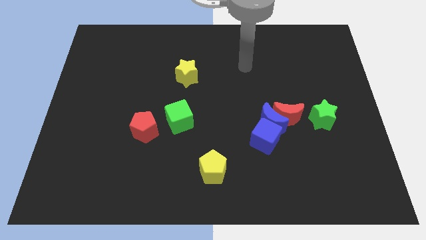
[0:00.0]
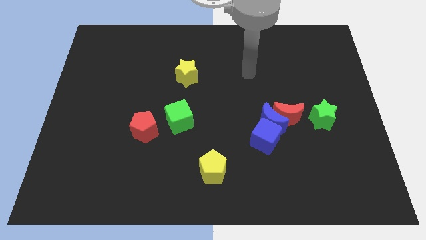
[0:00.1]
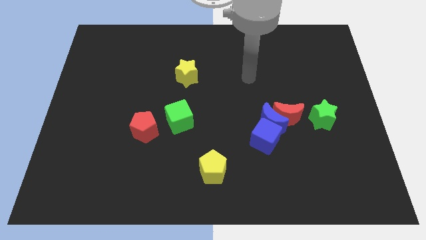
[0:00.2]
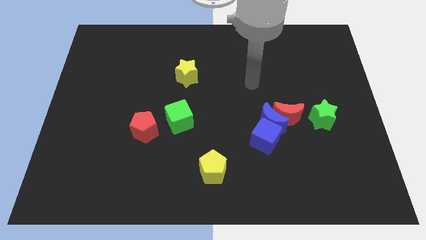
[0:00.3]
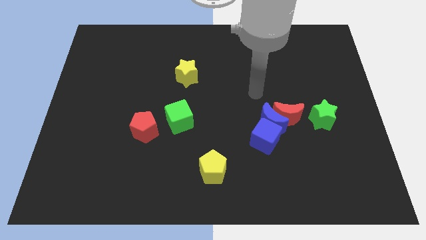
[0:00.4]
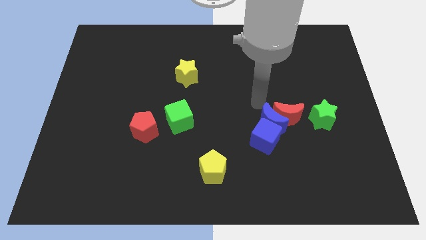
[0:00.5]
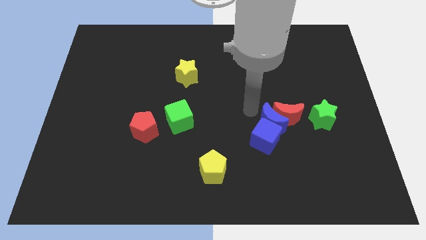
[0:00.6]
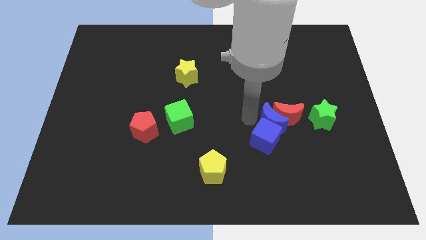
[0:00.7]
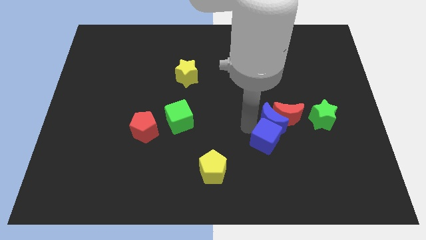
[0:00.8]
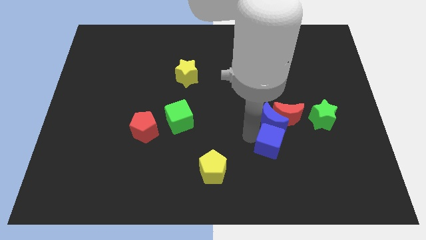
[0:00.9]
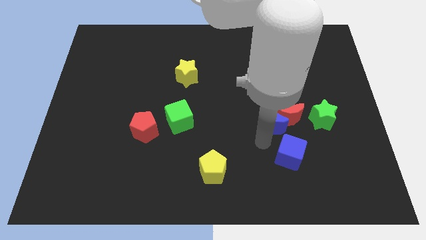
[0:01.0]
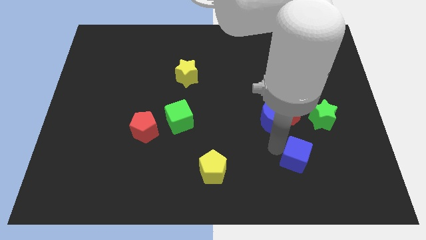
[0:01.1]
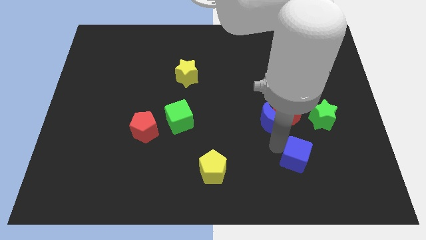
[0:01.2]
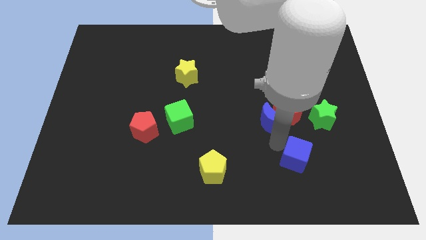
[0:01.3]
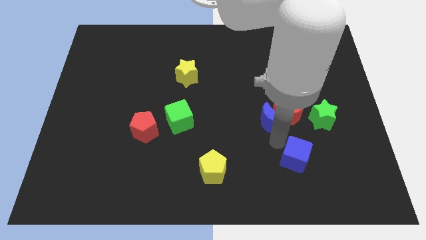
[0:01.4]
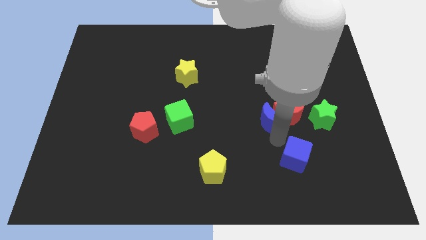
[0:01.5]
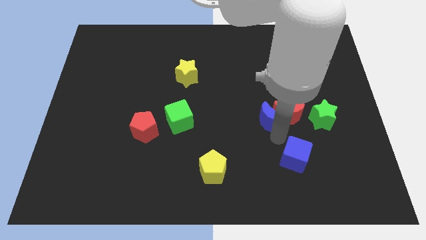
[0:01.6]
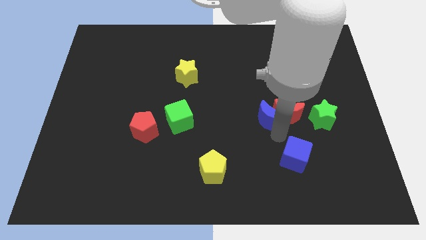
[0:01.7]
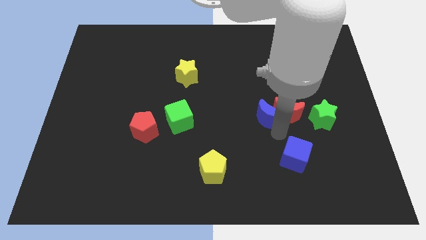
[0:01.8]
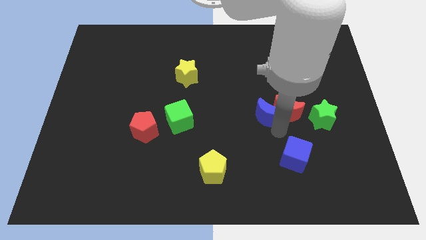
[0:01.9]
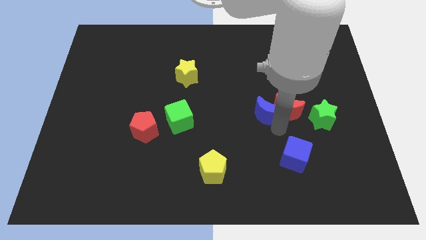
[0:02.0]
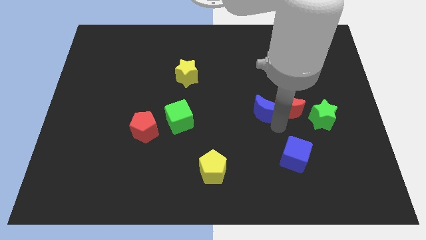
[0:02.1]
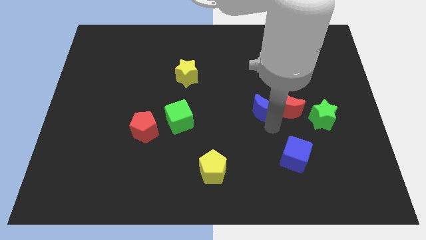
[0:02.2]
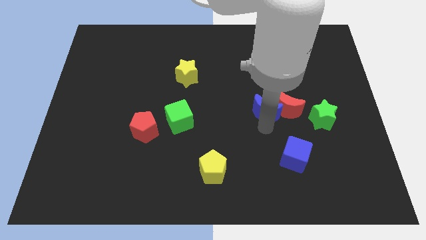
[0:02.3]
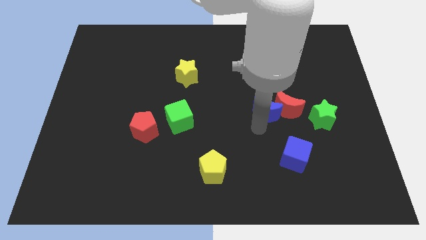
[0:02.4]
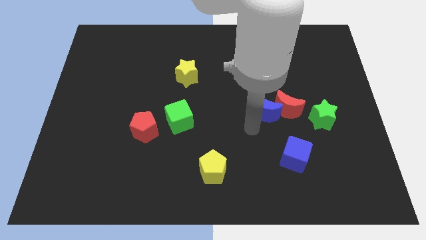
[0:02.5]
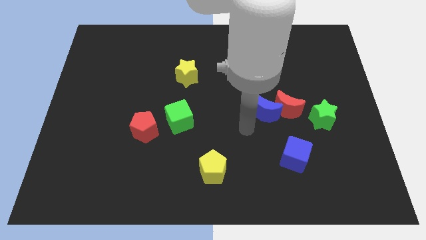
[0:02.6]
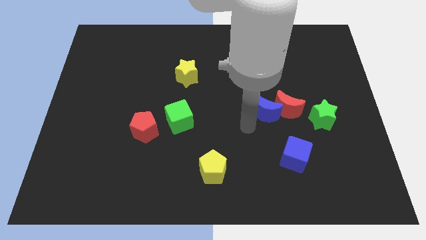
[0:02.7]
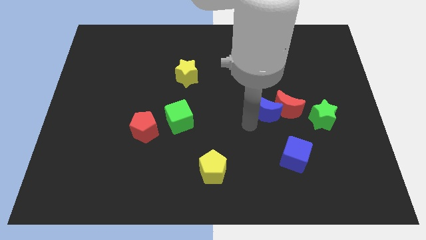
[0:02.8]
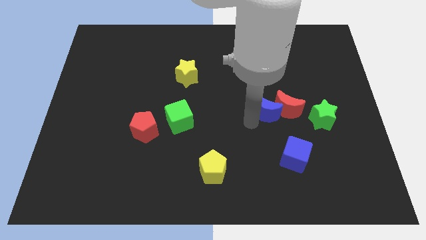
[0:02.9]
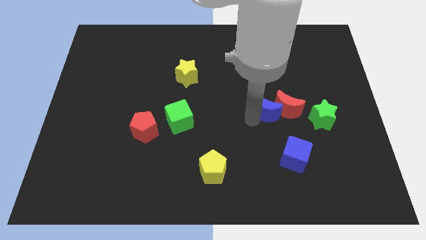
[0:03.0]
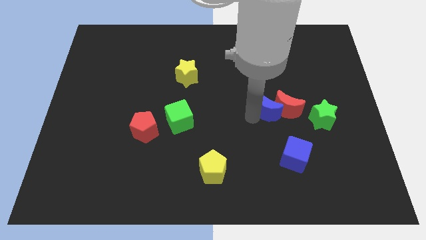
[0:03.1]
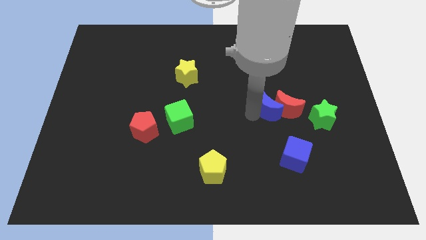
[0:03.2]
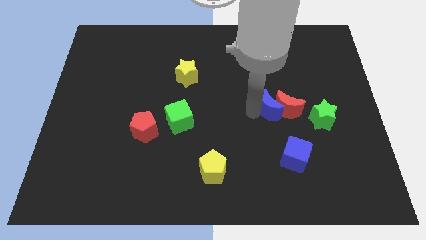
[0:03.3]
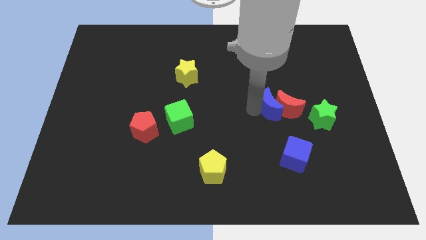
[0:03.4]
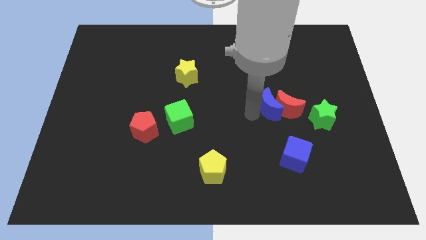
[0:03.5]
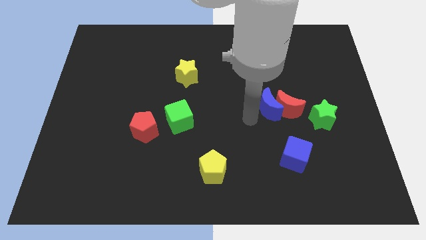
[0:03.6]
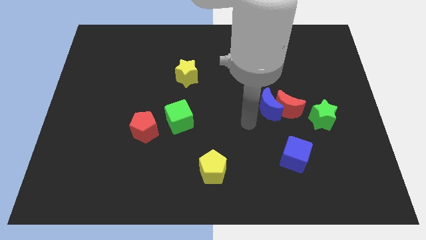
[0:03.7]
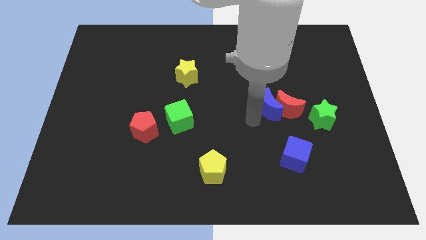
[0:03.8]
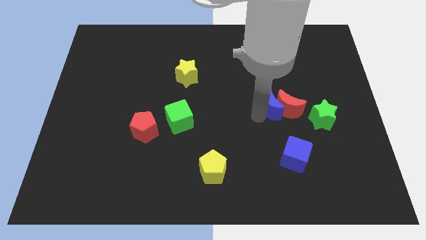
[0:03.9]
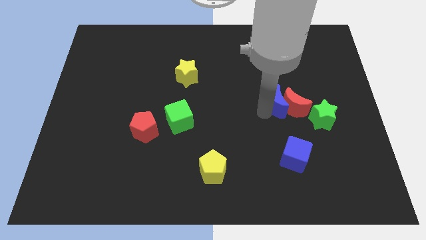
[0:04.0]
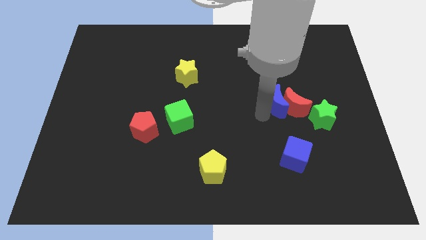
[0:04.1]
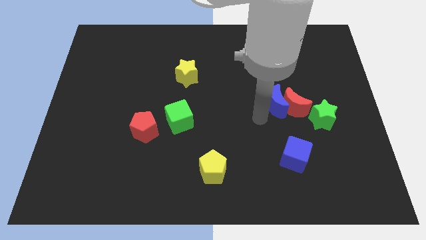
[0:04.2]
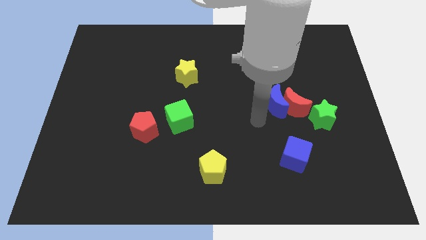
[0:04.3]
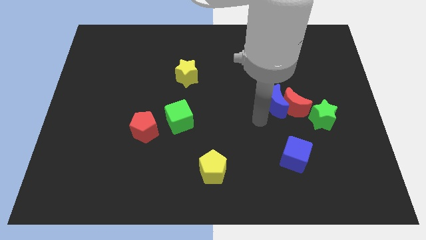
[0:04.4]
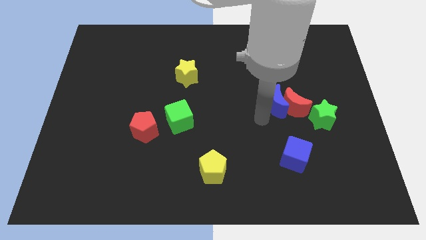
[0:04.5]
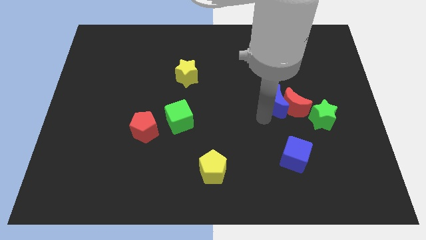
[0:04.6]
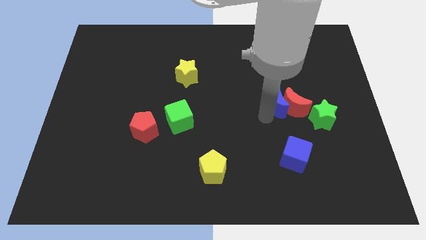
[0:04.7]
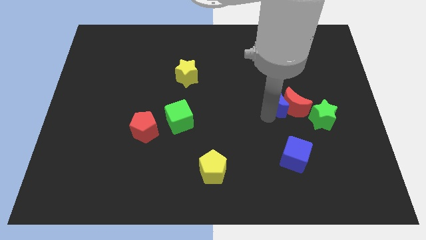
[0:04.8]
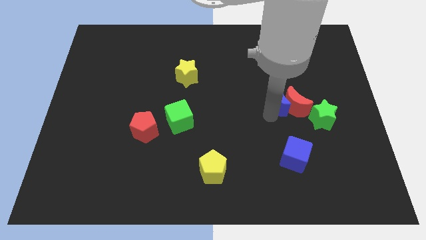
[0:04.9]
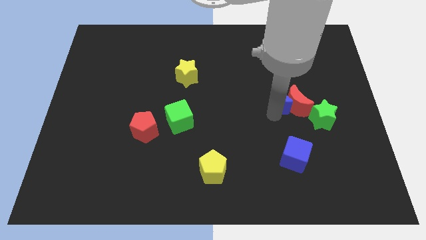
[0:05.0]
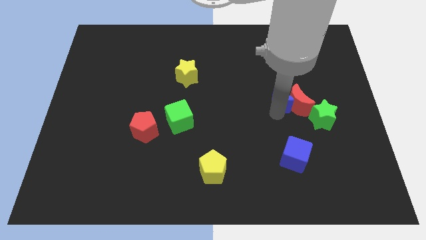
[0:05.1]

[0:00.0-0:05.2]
slightly push the blue moon diagonally up and right

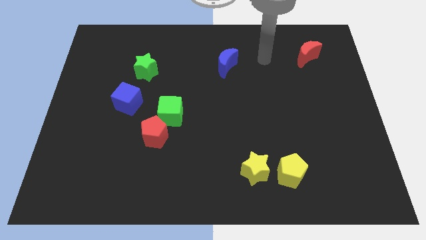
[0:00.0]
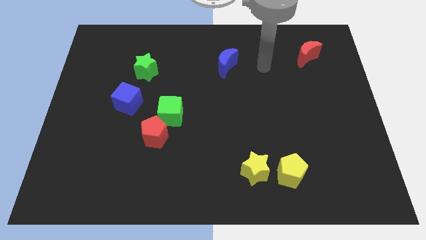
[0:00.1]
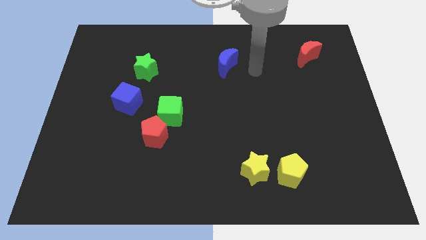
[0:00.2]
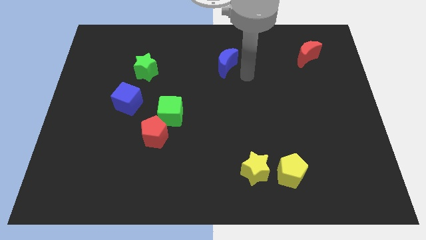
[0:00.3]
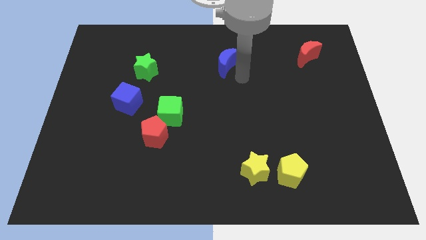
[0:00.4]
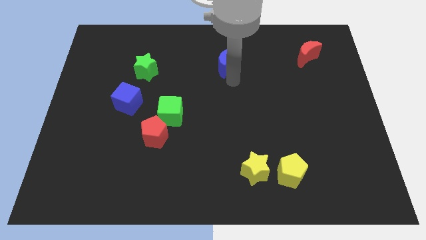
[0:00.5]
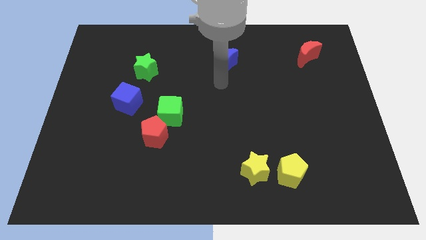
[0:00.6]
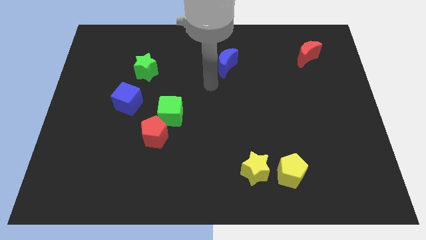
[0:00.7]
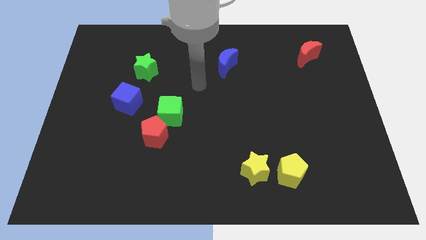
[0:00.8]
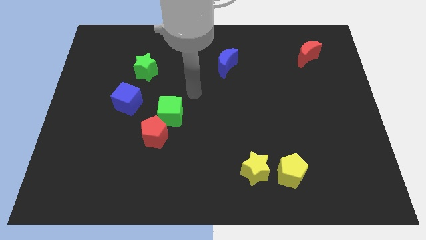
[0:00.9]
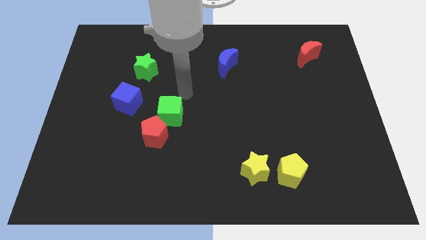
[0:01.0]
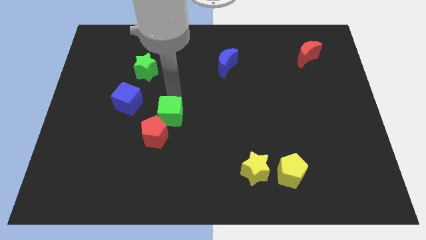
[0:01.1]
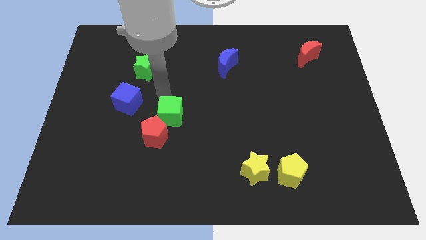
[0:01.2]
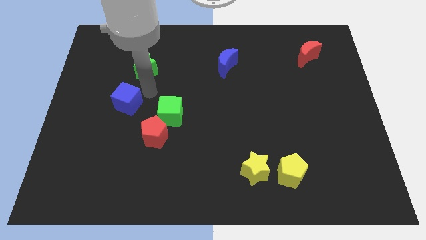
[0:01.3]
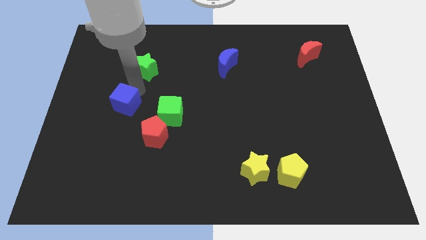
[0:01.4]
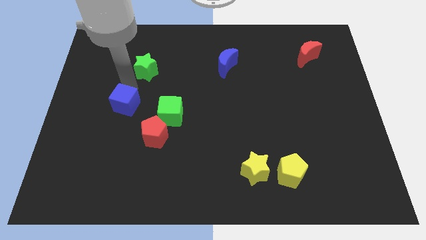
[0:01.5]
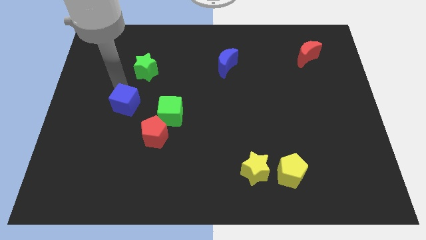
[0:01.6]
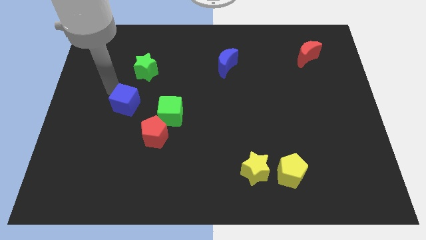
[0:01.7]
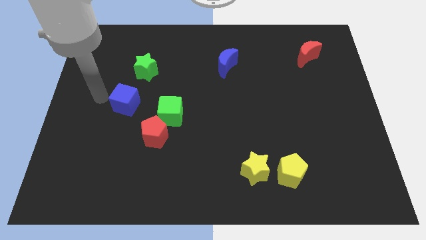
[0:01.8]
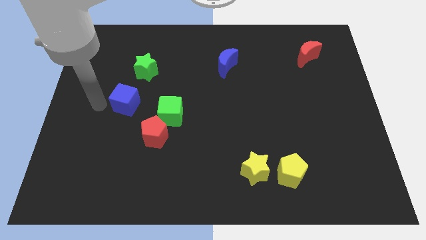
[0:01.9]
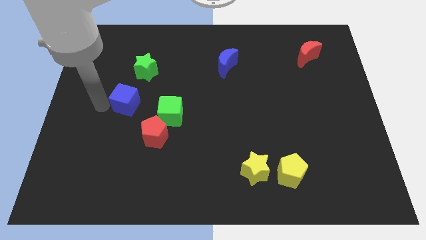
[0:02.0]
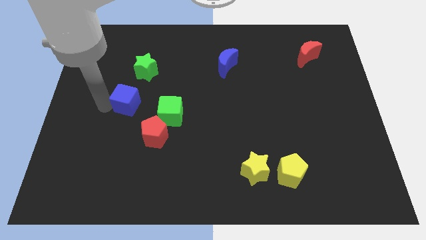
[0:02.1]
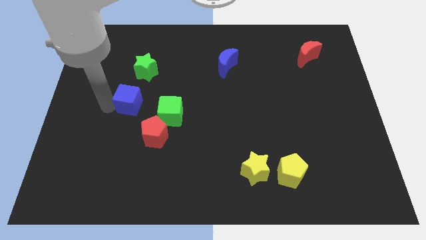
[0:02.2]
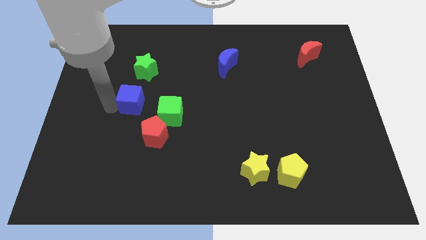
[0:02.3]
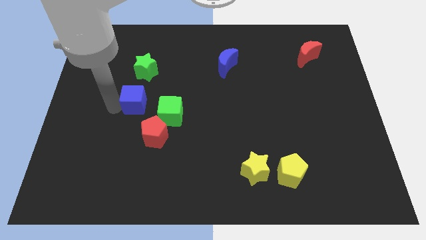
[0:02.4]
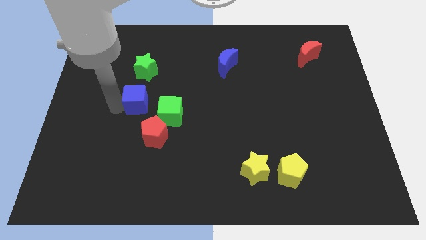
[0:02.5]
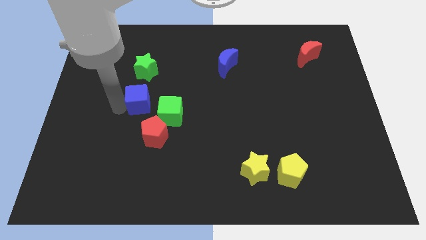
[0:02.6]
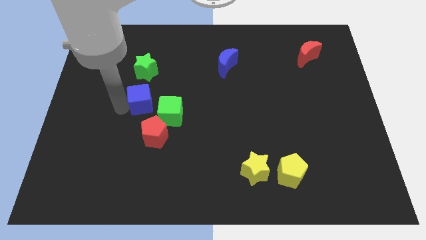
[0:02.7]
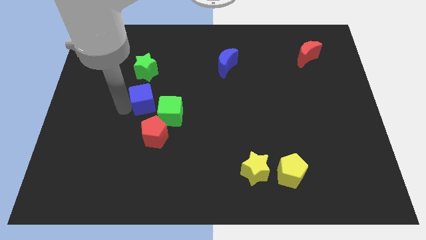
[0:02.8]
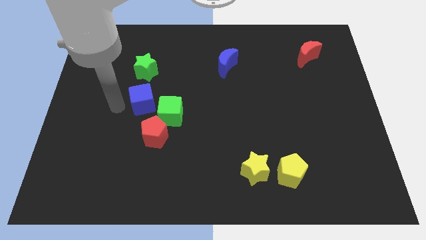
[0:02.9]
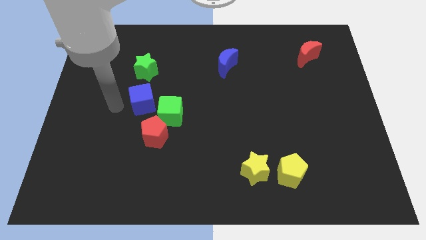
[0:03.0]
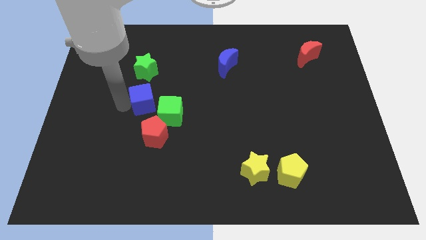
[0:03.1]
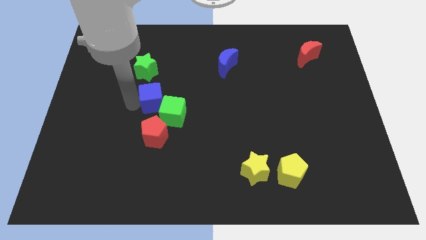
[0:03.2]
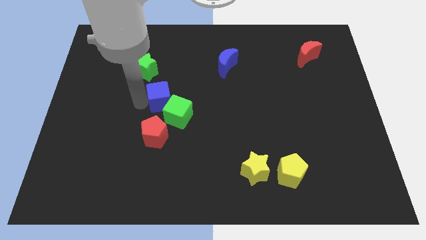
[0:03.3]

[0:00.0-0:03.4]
slightly move the blue cube to the right

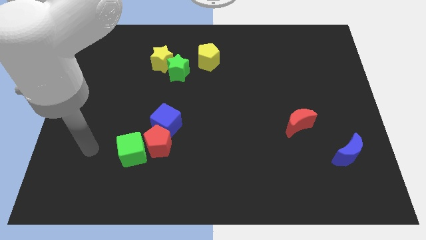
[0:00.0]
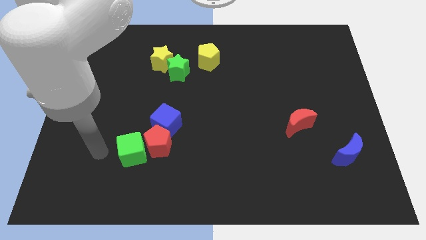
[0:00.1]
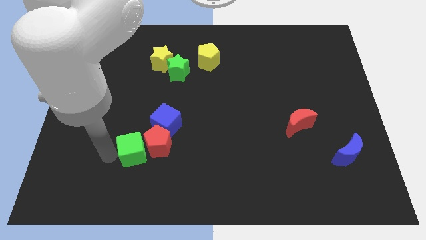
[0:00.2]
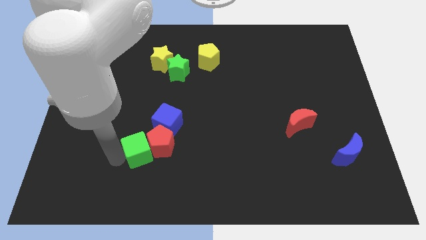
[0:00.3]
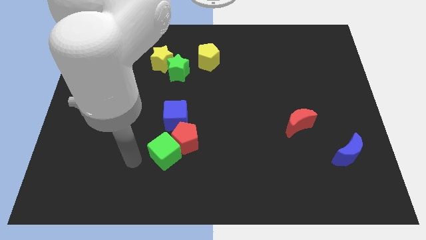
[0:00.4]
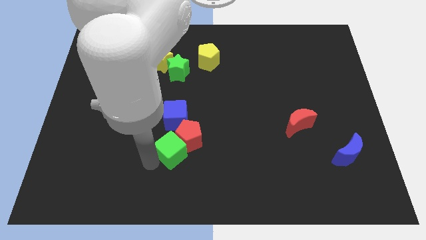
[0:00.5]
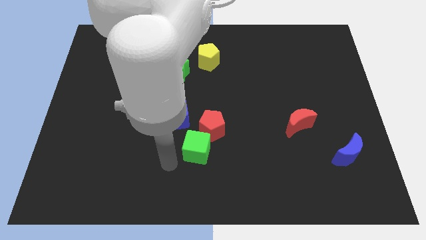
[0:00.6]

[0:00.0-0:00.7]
slightly slide the red pentagon up and to the right
